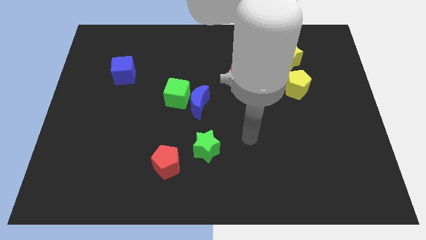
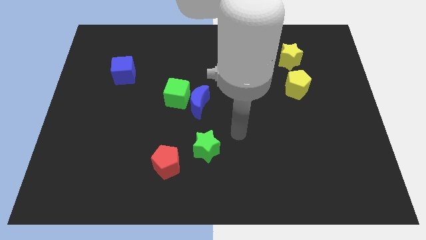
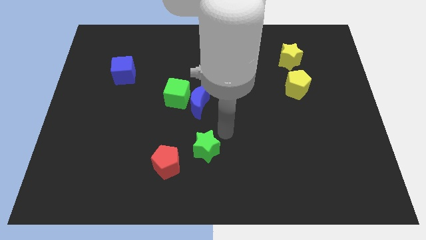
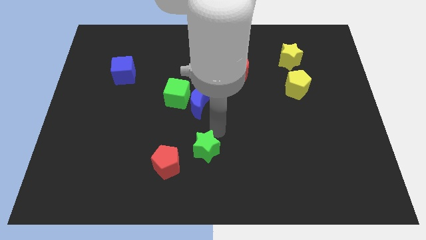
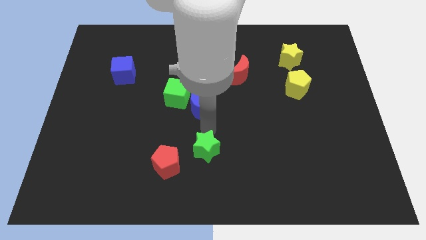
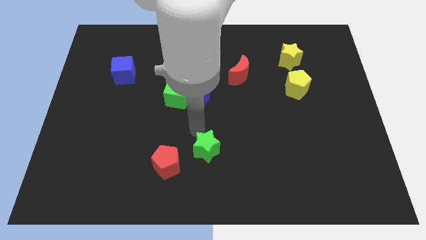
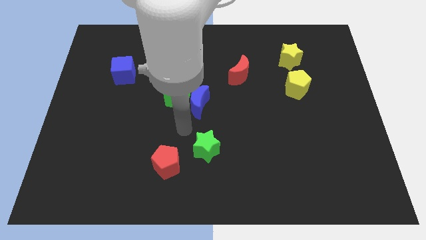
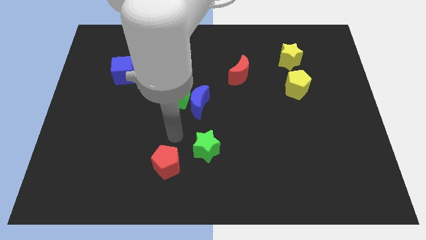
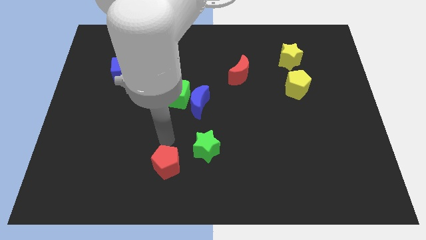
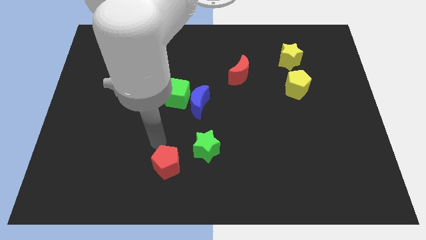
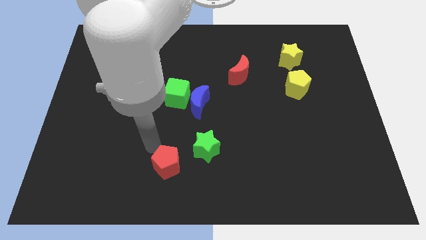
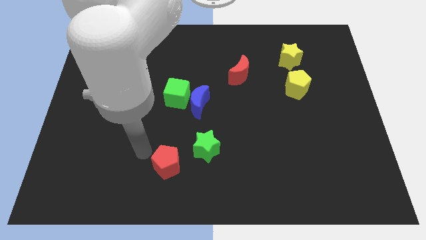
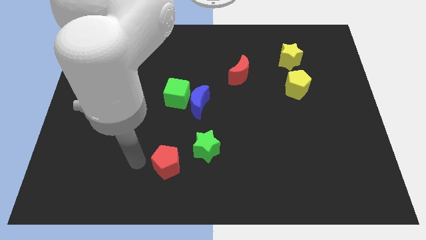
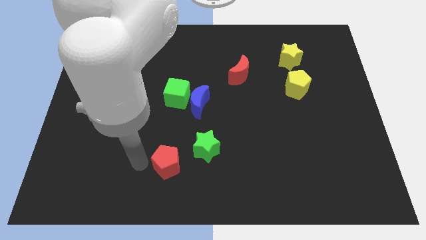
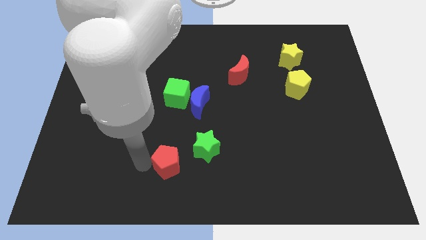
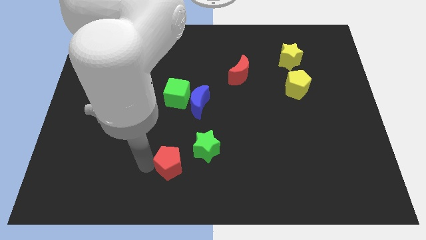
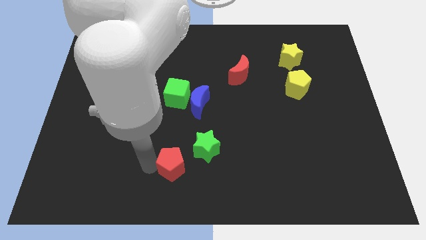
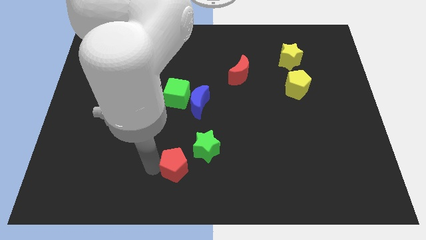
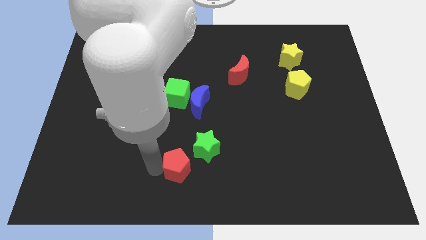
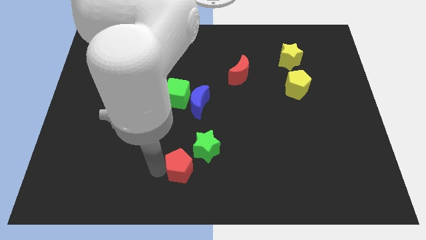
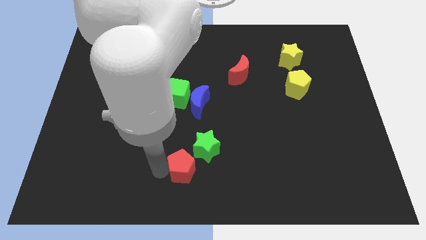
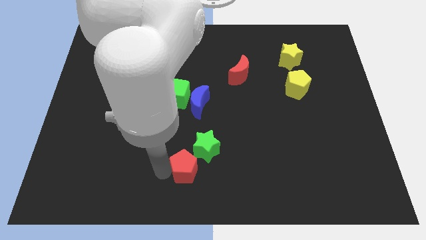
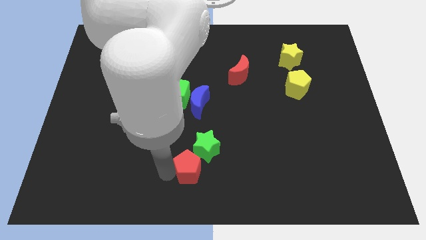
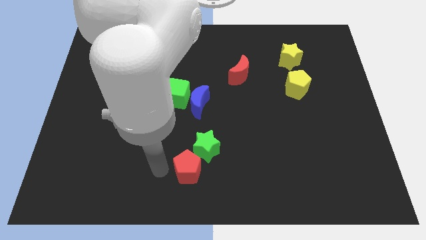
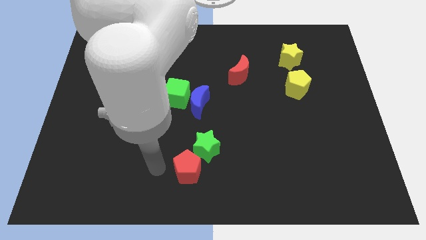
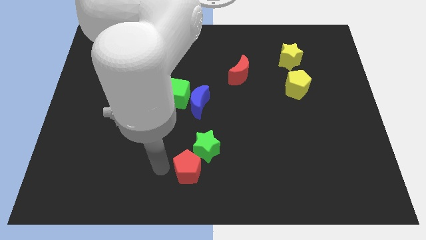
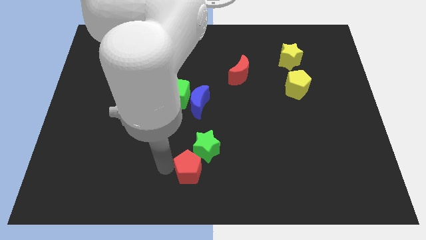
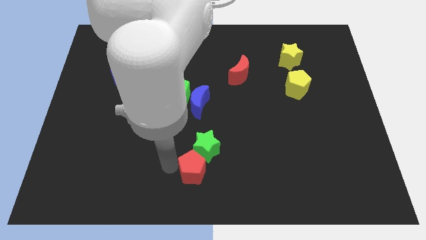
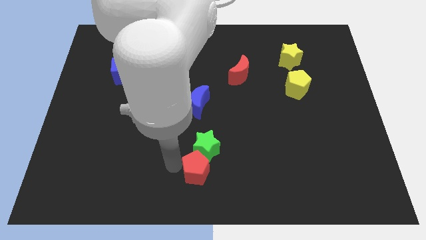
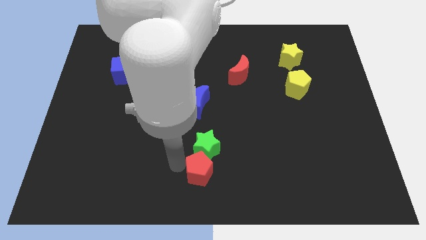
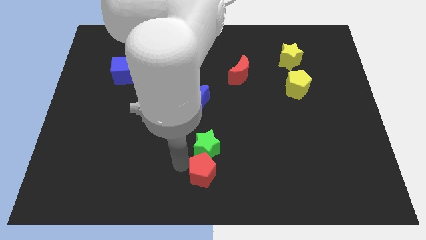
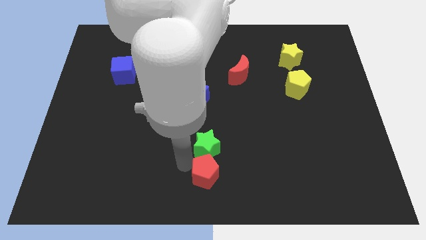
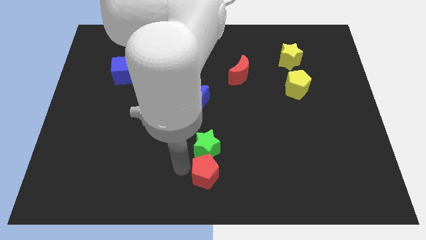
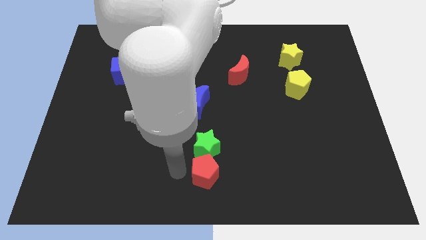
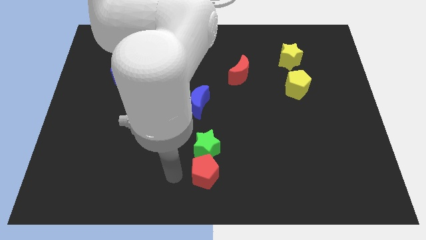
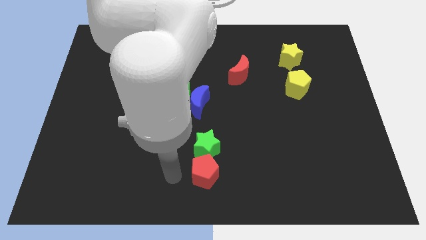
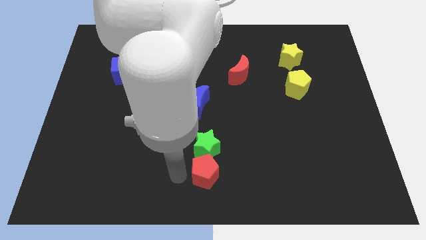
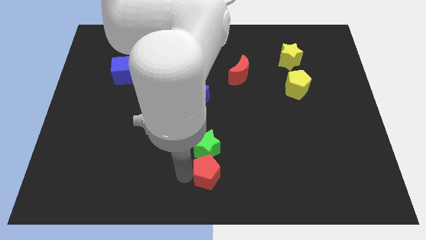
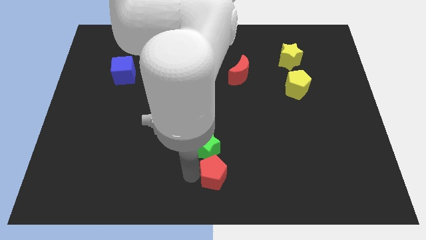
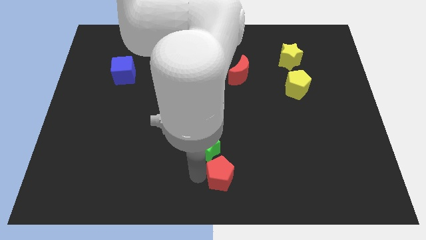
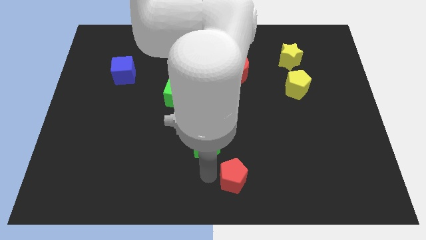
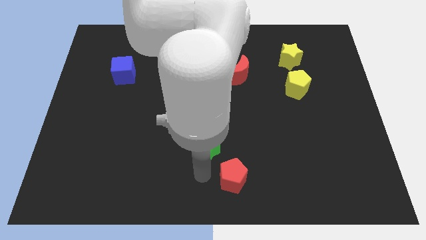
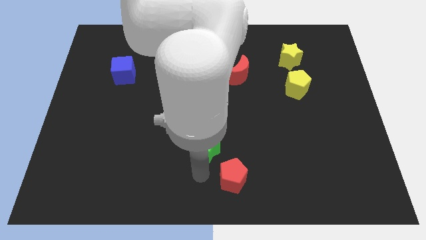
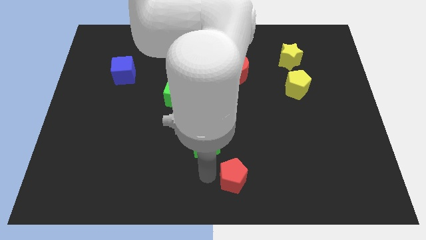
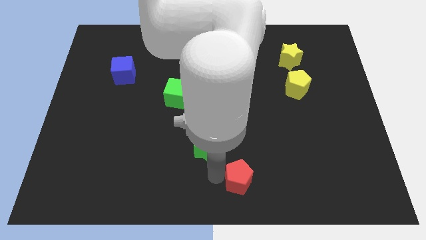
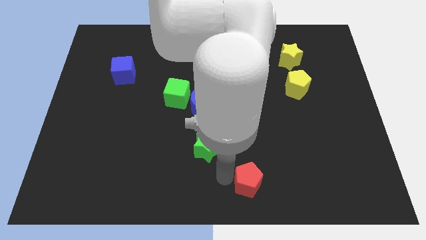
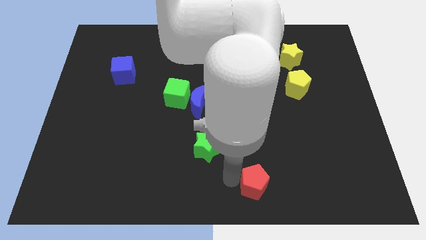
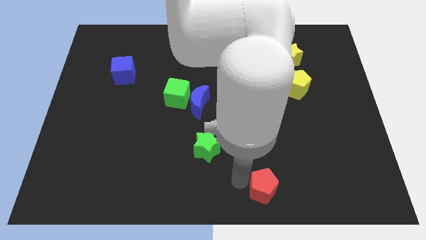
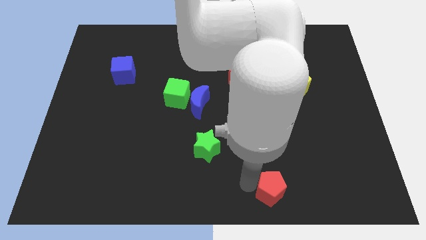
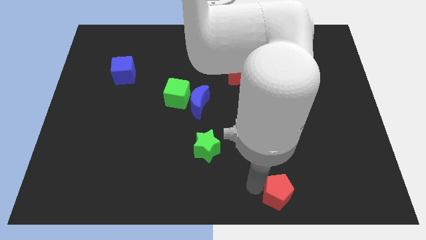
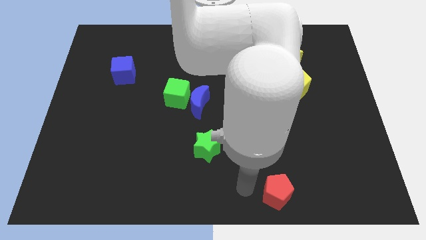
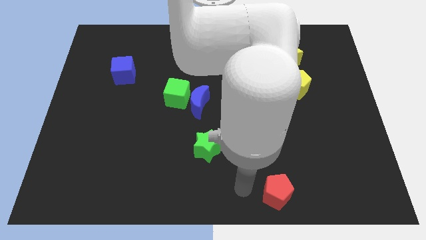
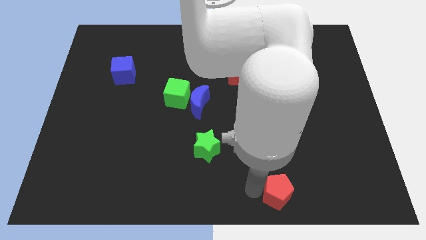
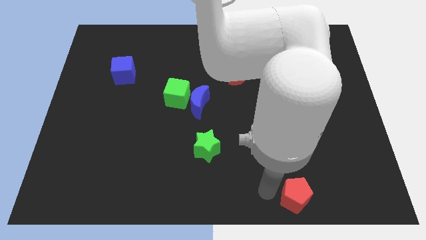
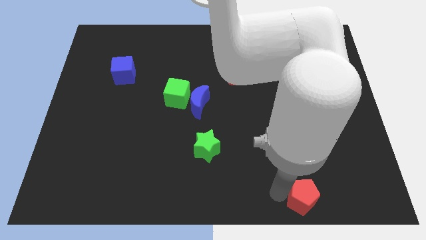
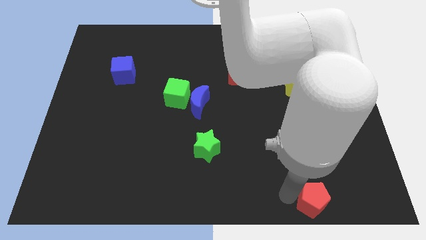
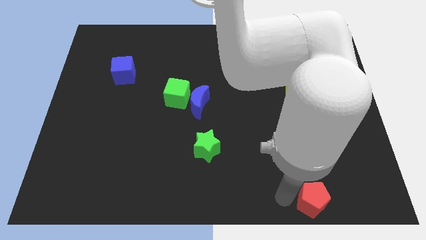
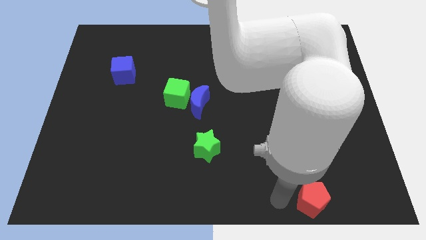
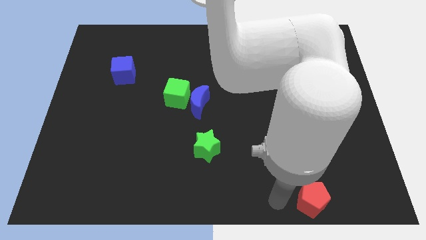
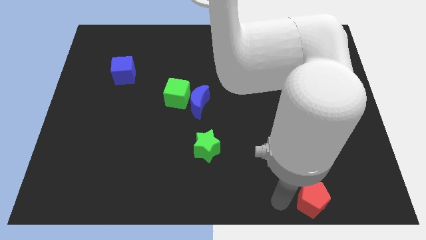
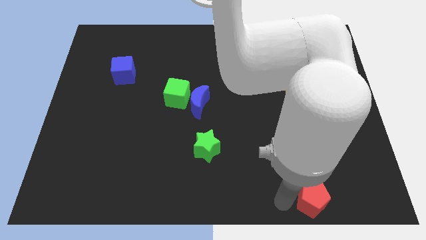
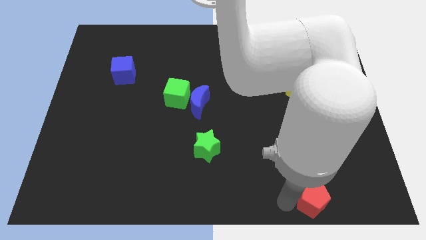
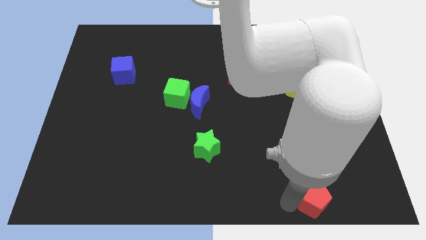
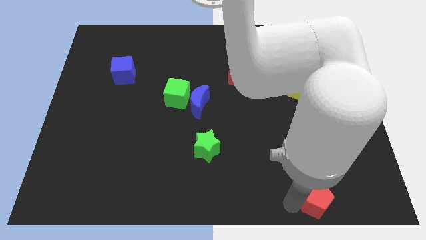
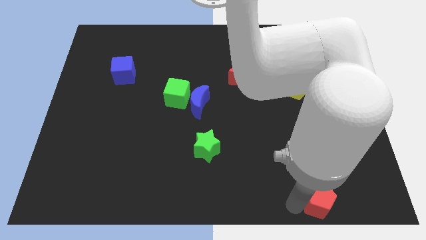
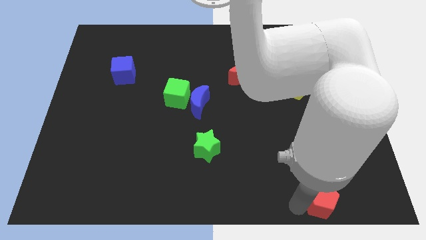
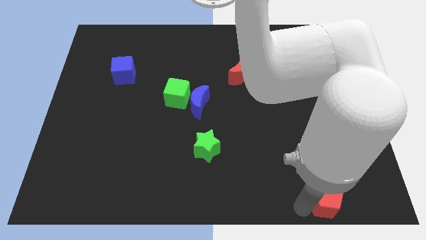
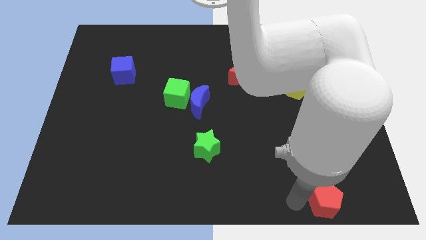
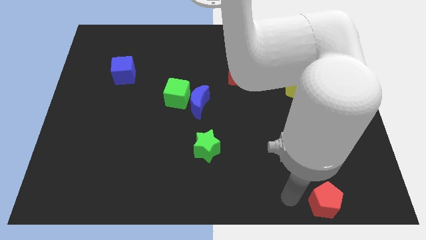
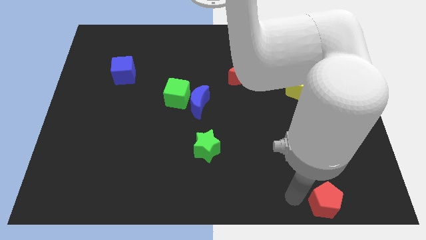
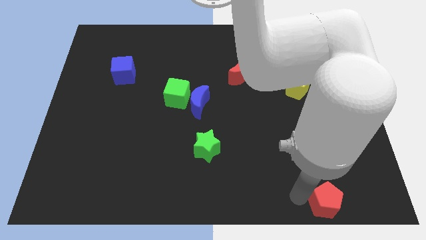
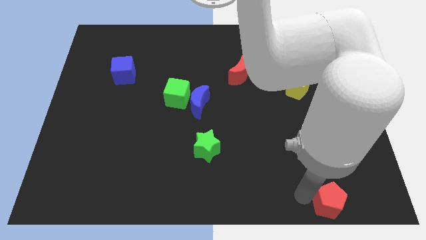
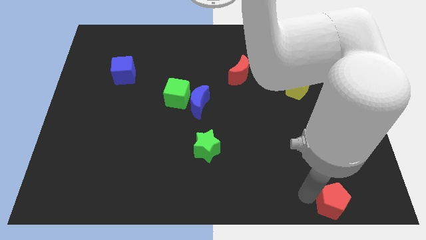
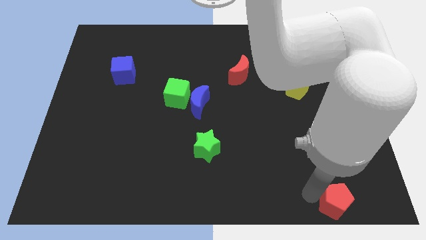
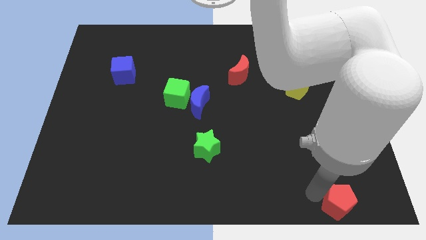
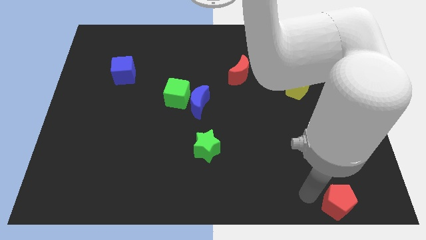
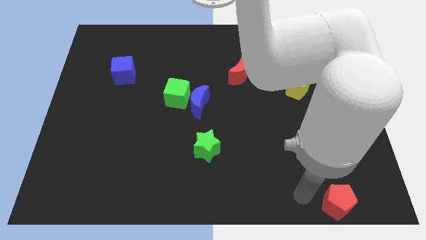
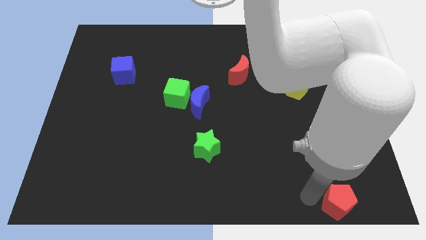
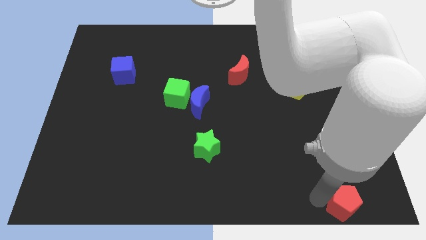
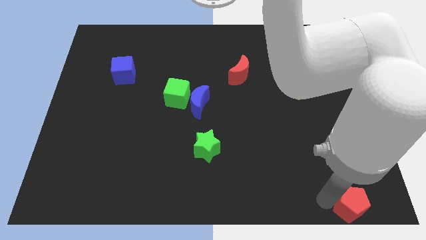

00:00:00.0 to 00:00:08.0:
move the red pentagon to the bottom right corner
